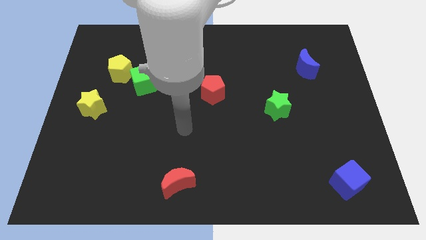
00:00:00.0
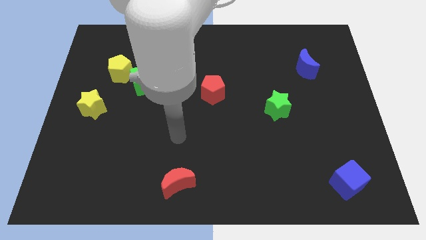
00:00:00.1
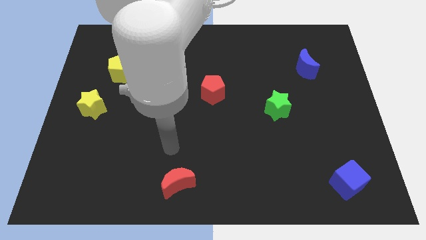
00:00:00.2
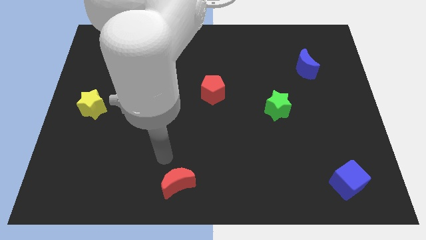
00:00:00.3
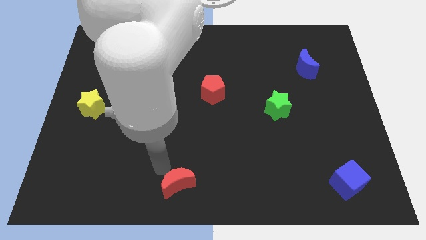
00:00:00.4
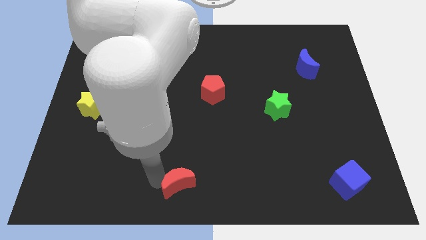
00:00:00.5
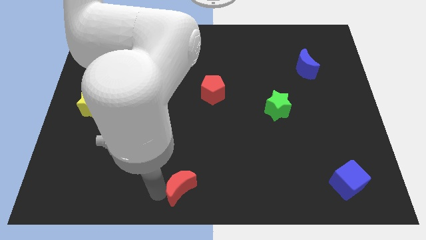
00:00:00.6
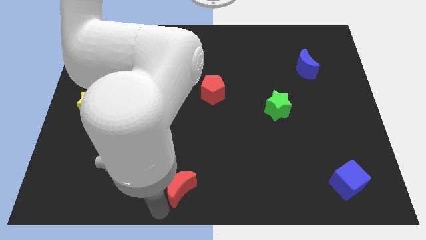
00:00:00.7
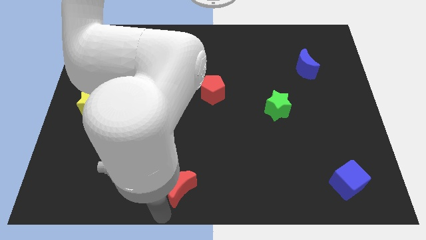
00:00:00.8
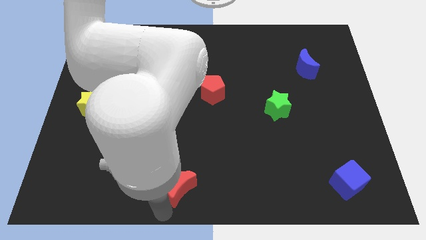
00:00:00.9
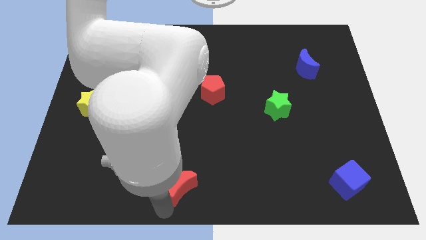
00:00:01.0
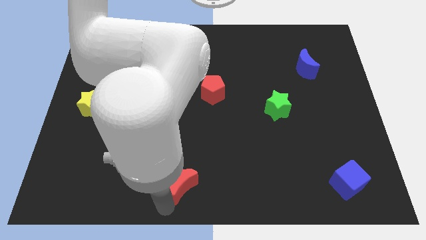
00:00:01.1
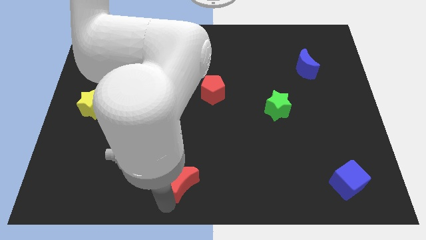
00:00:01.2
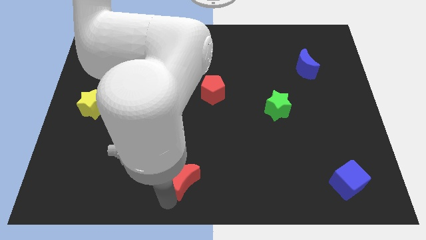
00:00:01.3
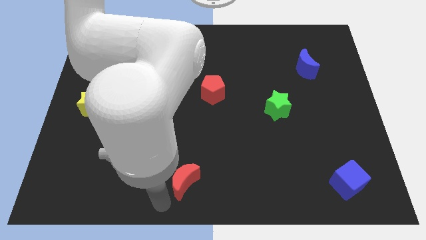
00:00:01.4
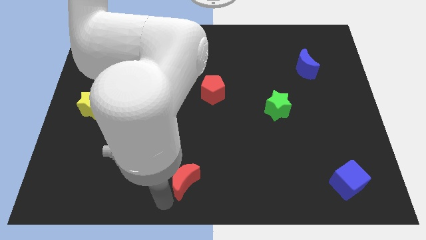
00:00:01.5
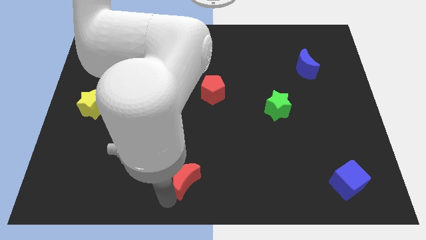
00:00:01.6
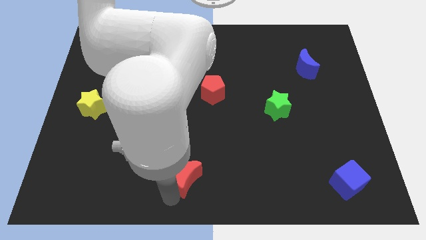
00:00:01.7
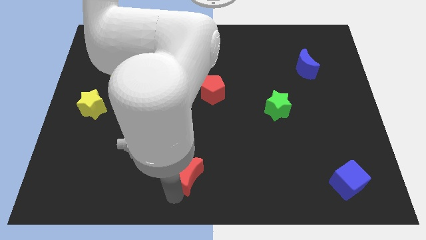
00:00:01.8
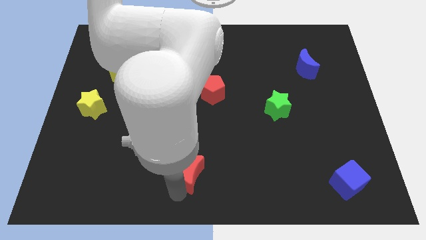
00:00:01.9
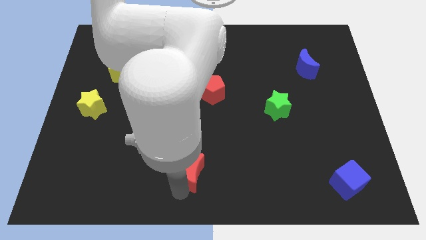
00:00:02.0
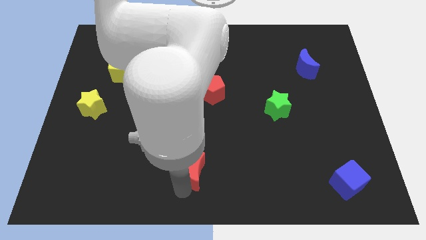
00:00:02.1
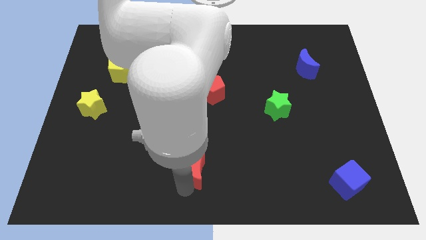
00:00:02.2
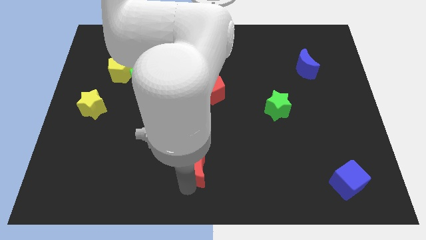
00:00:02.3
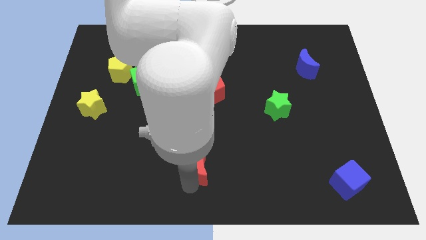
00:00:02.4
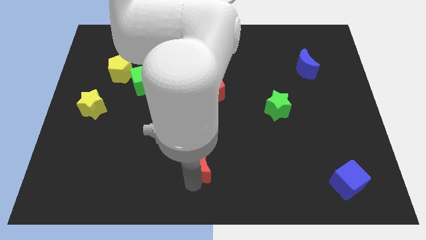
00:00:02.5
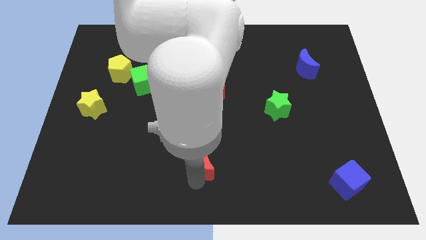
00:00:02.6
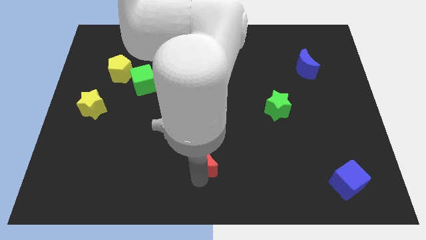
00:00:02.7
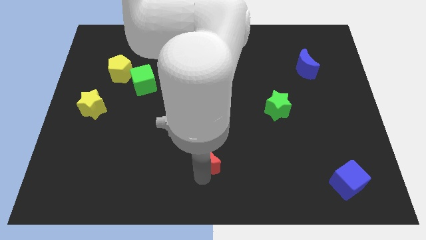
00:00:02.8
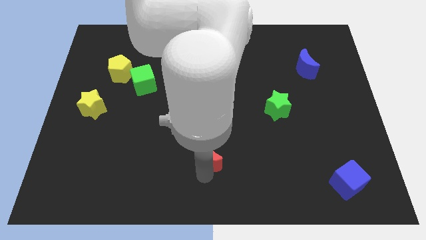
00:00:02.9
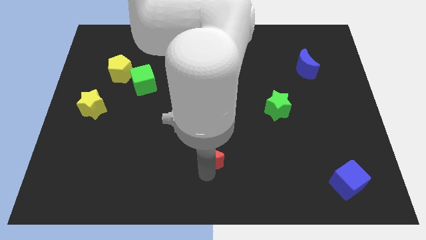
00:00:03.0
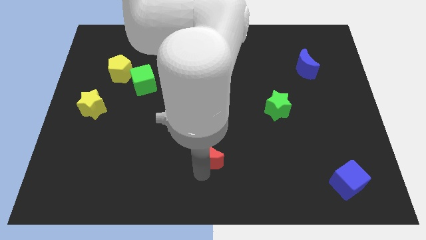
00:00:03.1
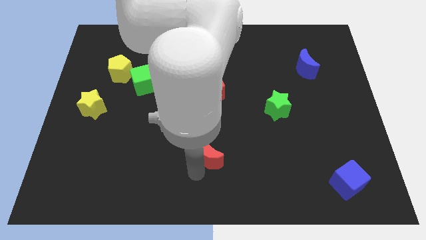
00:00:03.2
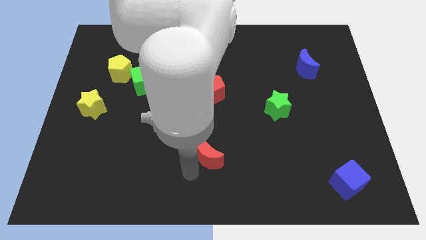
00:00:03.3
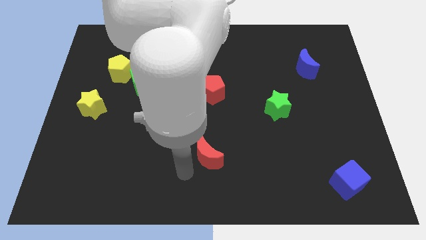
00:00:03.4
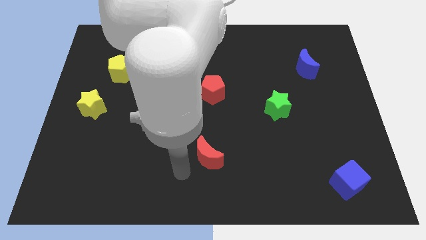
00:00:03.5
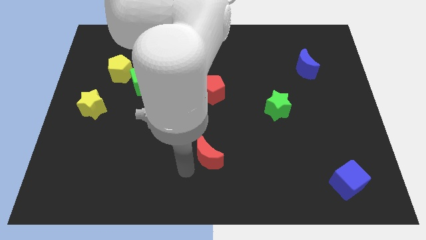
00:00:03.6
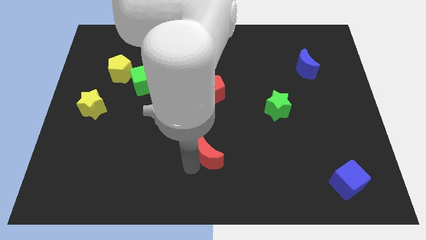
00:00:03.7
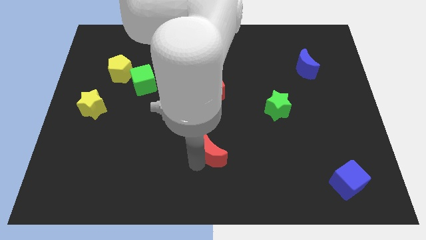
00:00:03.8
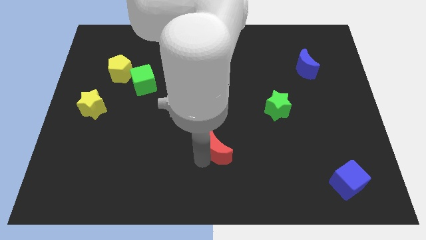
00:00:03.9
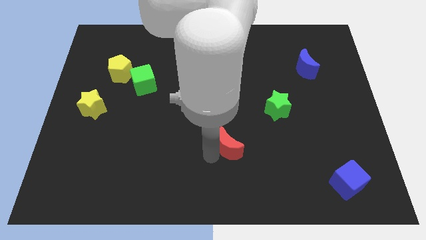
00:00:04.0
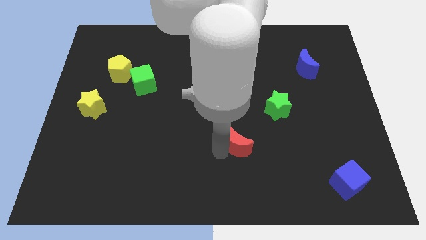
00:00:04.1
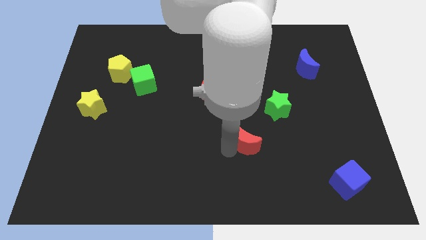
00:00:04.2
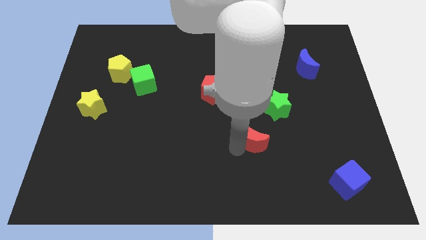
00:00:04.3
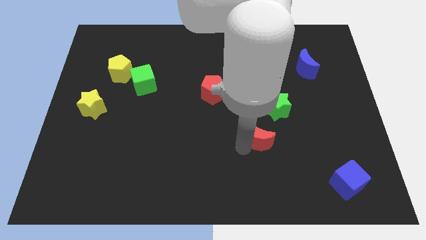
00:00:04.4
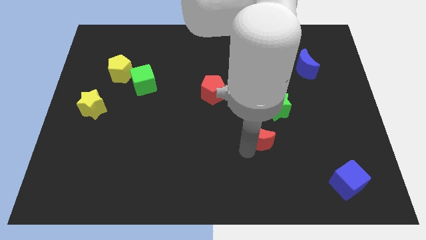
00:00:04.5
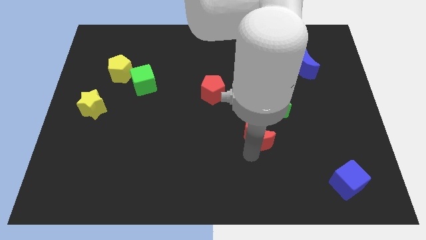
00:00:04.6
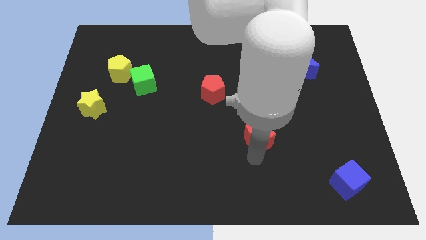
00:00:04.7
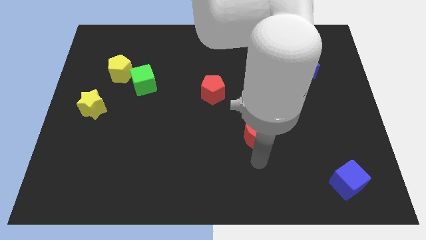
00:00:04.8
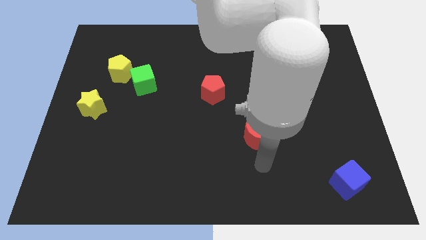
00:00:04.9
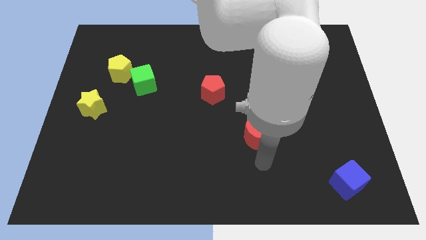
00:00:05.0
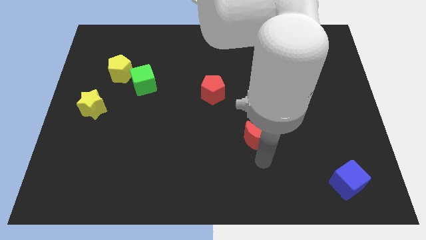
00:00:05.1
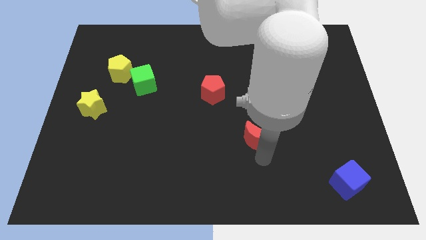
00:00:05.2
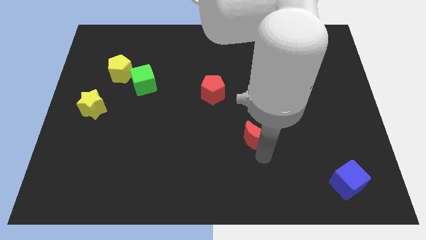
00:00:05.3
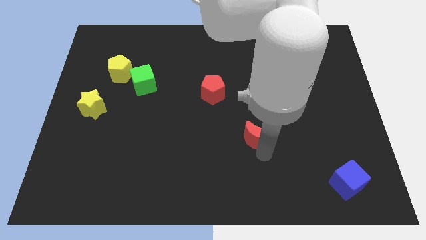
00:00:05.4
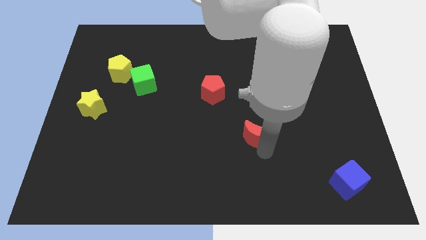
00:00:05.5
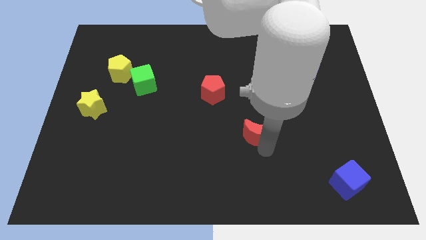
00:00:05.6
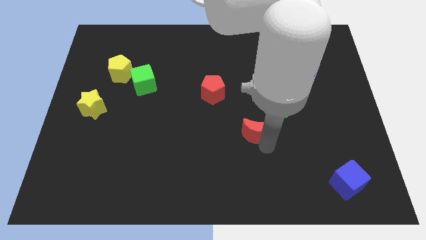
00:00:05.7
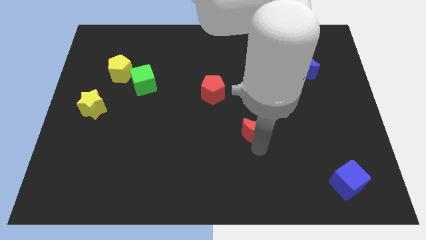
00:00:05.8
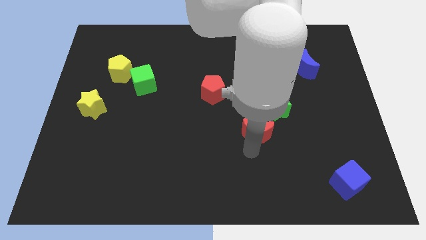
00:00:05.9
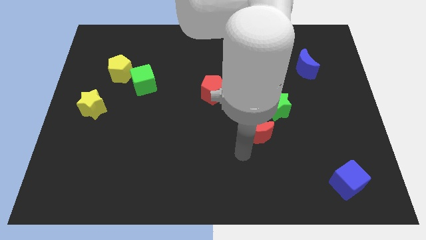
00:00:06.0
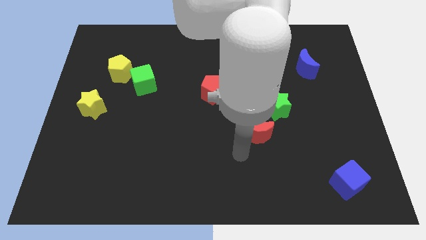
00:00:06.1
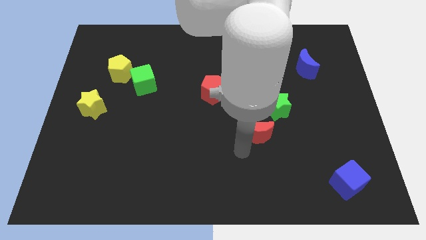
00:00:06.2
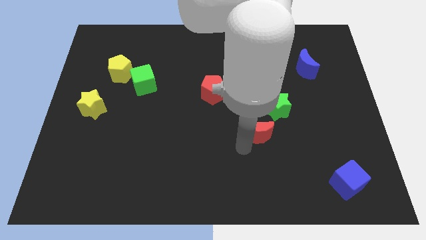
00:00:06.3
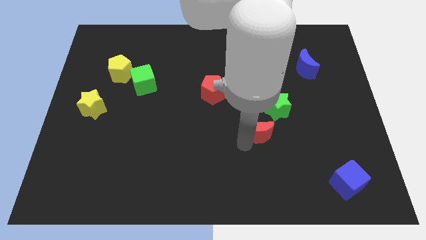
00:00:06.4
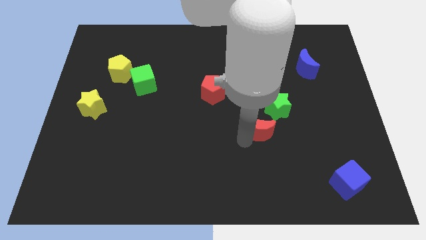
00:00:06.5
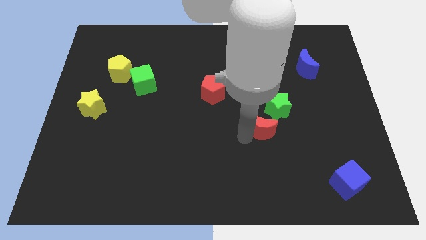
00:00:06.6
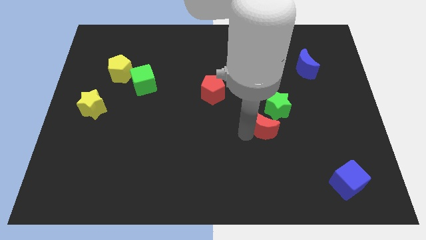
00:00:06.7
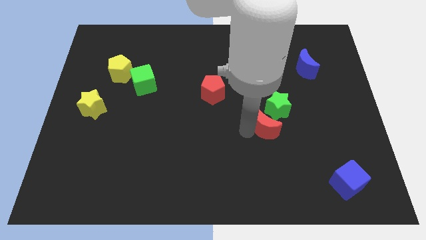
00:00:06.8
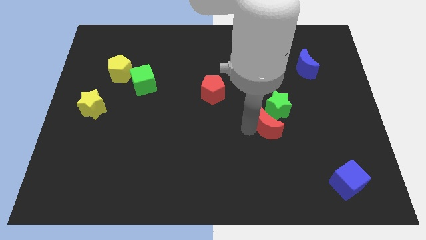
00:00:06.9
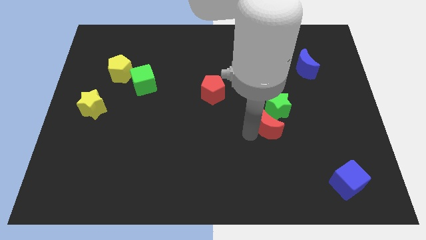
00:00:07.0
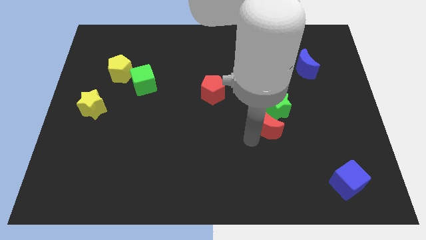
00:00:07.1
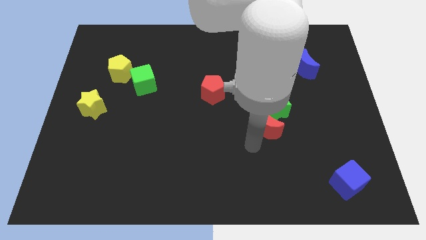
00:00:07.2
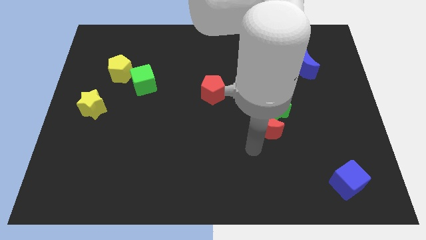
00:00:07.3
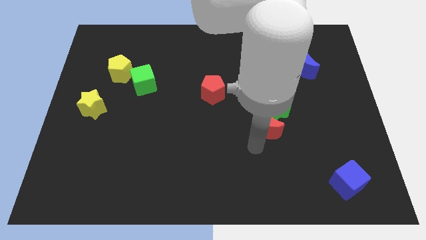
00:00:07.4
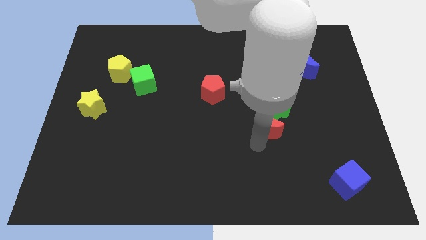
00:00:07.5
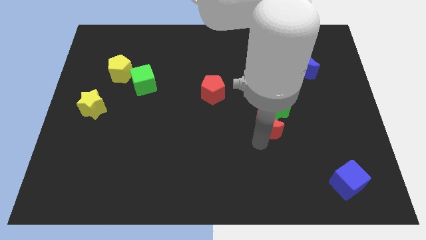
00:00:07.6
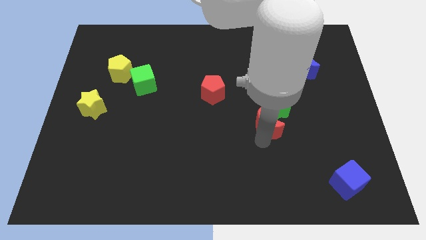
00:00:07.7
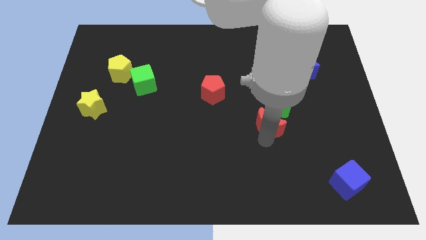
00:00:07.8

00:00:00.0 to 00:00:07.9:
slide the red moon next to the green star
